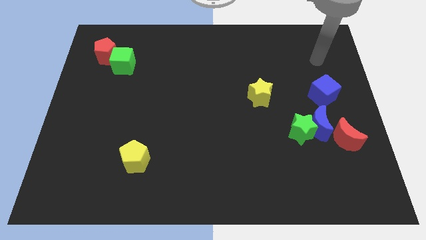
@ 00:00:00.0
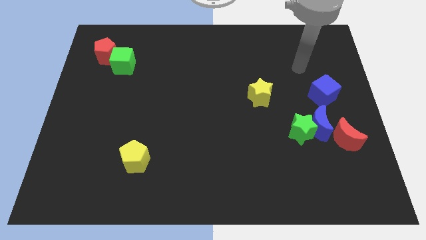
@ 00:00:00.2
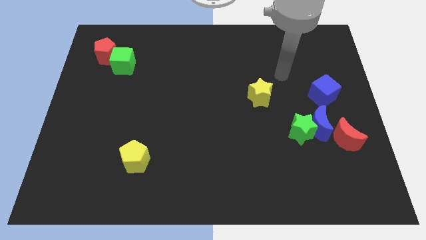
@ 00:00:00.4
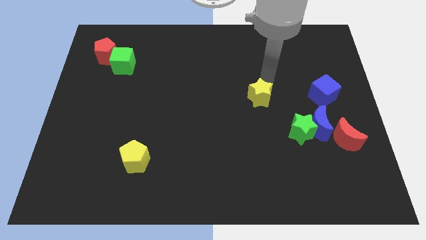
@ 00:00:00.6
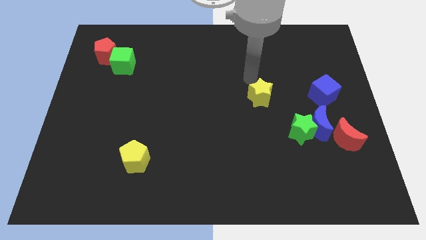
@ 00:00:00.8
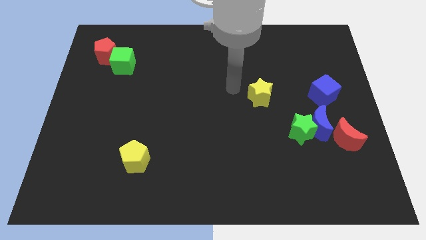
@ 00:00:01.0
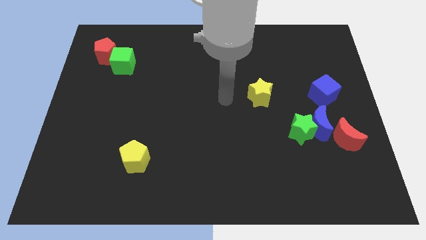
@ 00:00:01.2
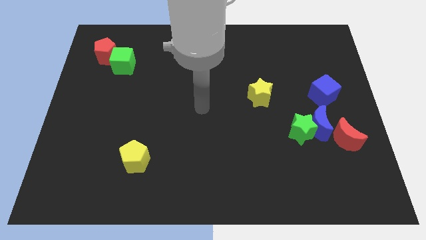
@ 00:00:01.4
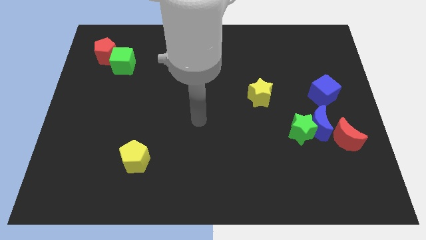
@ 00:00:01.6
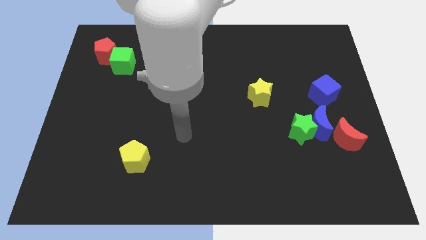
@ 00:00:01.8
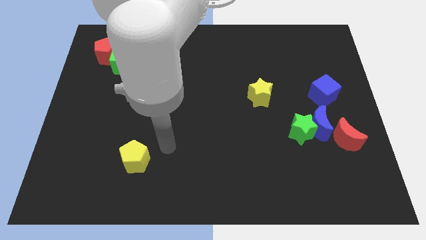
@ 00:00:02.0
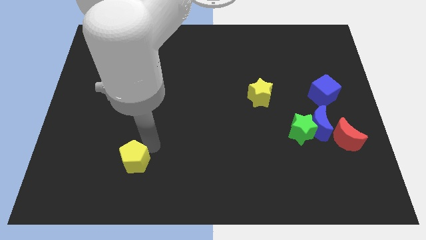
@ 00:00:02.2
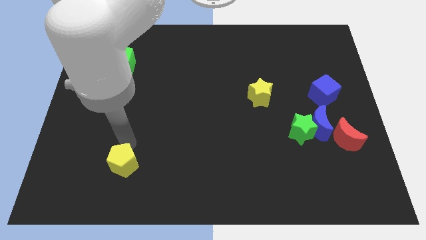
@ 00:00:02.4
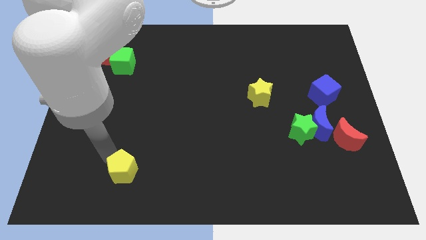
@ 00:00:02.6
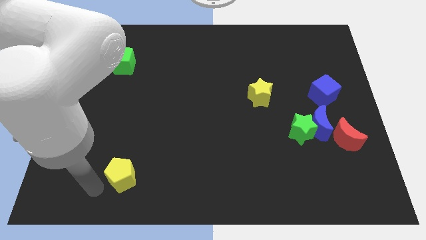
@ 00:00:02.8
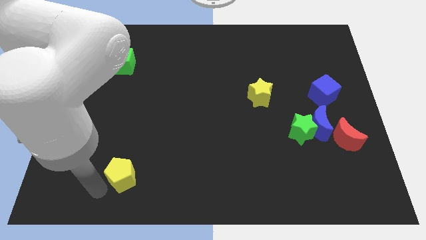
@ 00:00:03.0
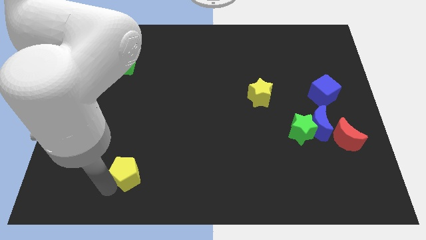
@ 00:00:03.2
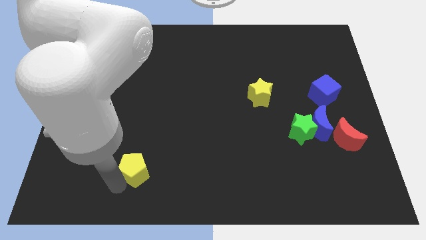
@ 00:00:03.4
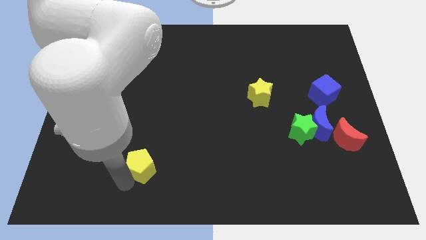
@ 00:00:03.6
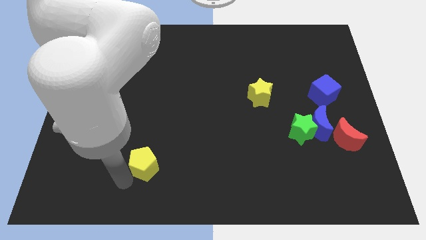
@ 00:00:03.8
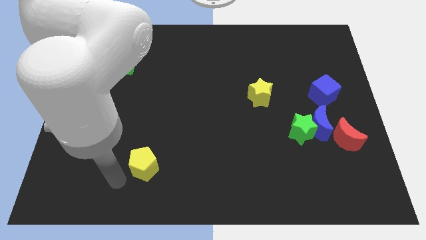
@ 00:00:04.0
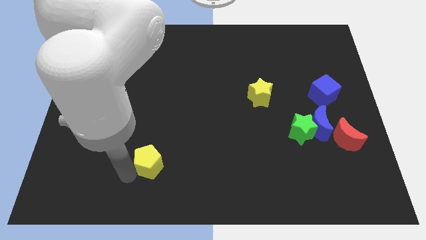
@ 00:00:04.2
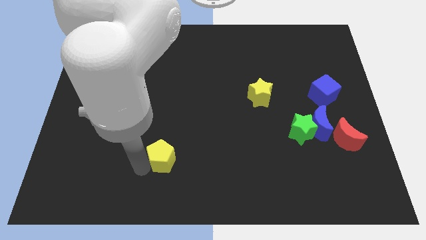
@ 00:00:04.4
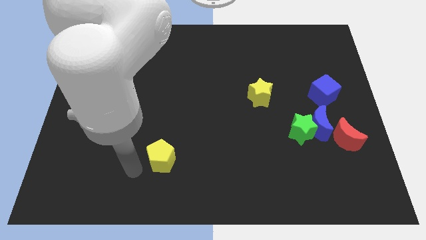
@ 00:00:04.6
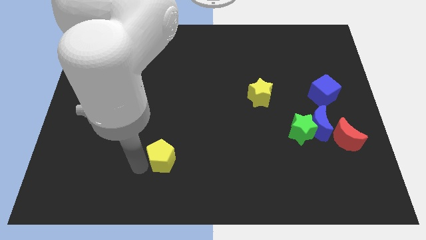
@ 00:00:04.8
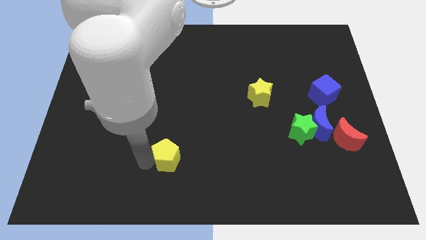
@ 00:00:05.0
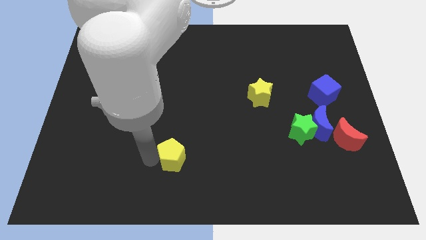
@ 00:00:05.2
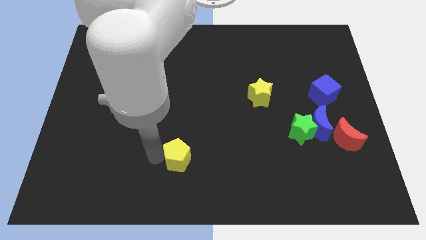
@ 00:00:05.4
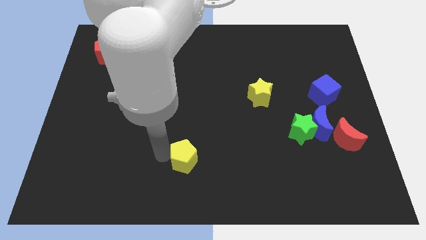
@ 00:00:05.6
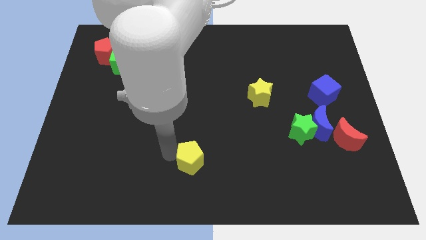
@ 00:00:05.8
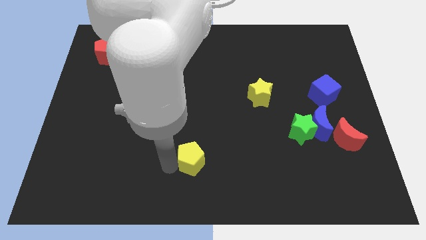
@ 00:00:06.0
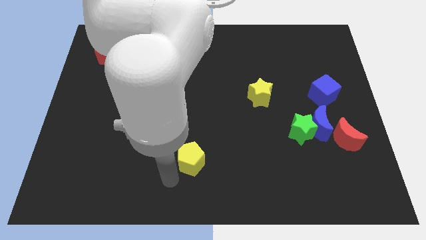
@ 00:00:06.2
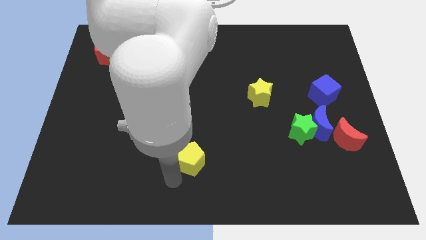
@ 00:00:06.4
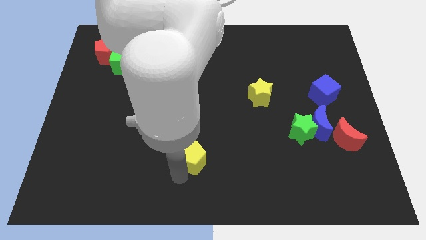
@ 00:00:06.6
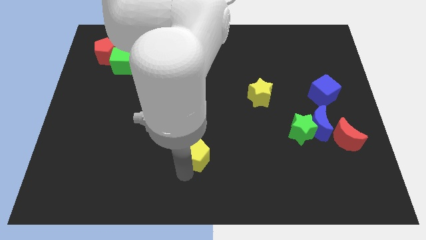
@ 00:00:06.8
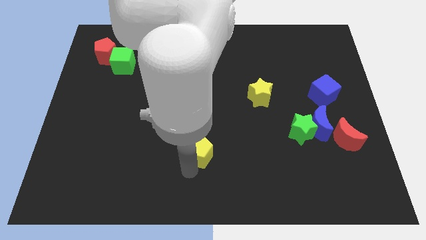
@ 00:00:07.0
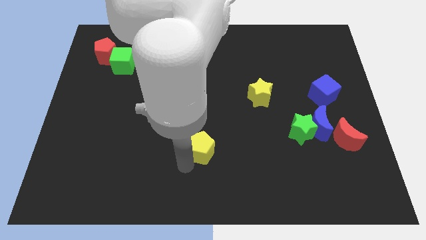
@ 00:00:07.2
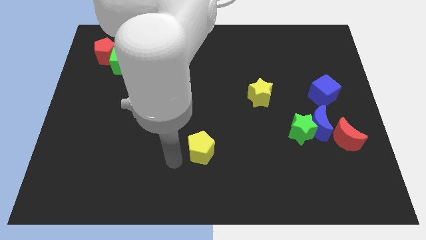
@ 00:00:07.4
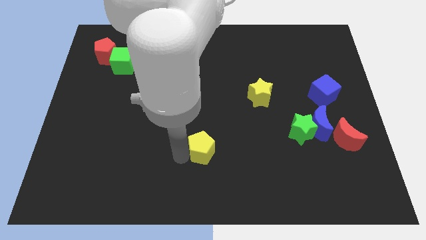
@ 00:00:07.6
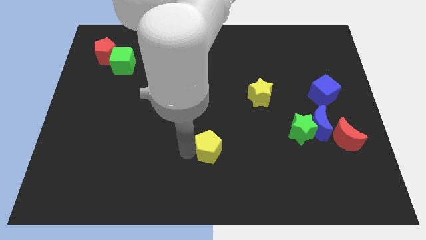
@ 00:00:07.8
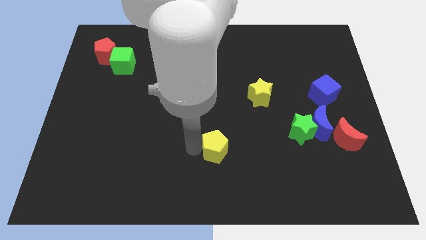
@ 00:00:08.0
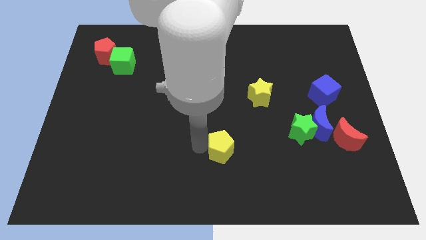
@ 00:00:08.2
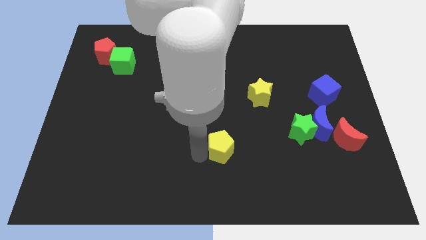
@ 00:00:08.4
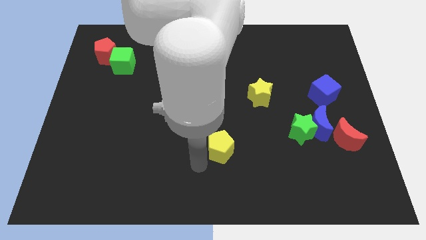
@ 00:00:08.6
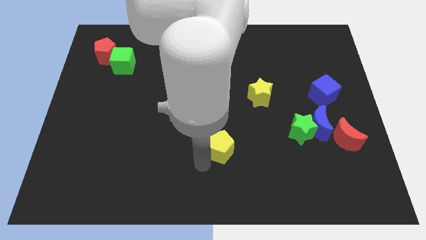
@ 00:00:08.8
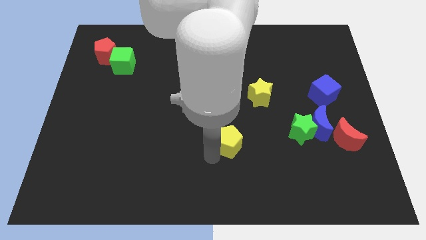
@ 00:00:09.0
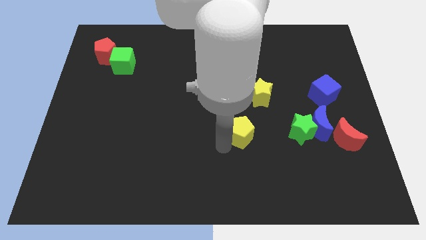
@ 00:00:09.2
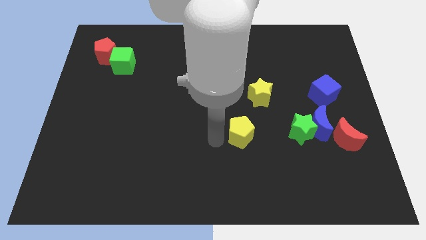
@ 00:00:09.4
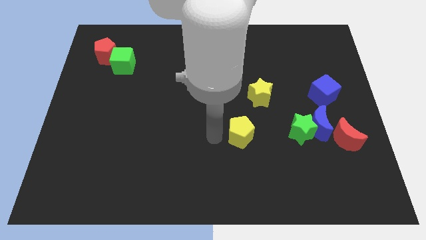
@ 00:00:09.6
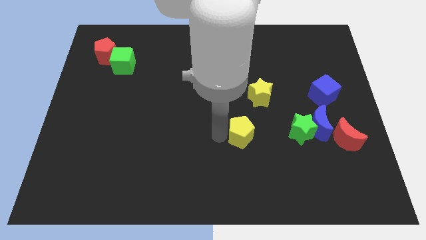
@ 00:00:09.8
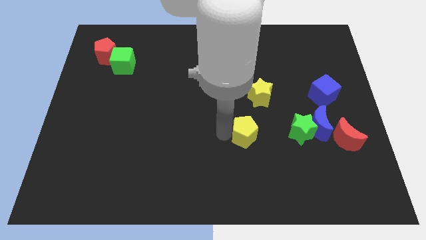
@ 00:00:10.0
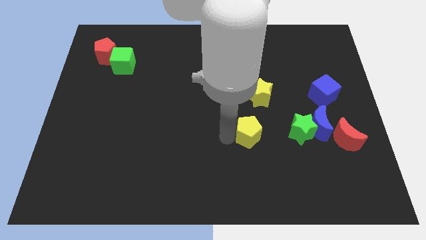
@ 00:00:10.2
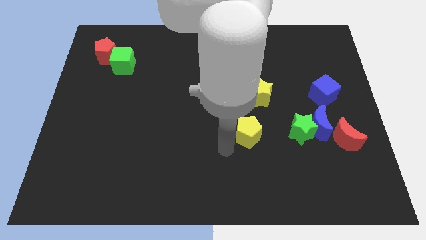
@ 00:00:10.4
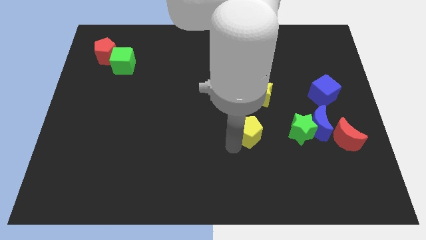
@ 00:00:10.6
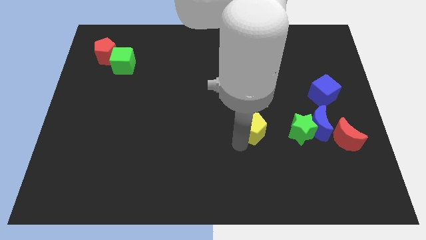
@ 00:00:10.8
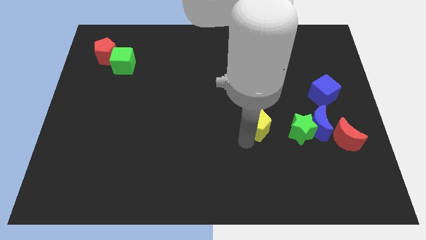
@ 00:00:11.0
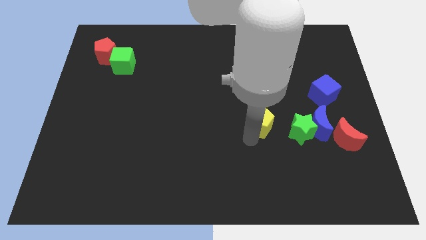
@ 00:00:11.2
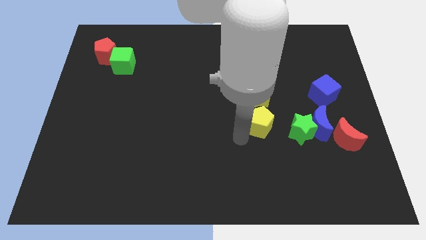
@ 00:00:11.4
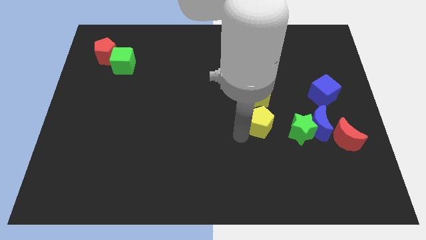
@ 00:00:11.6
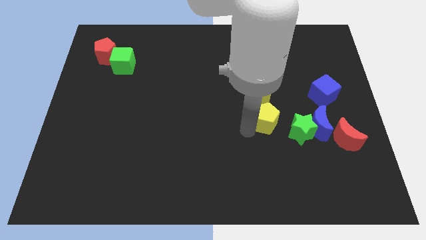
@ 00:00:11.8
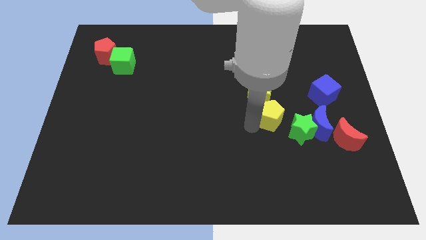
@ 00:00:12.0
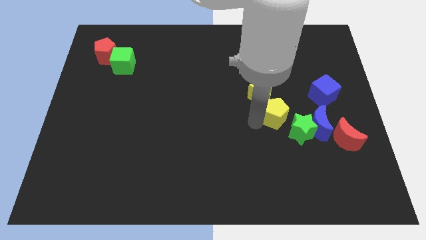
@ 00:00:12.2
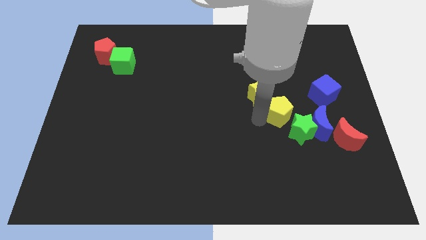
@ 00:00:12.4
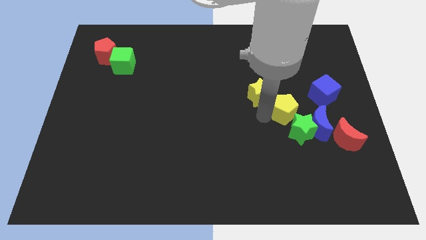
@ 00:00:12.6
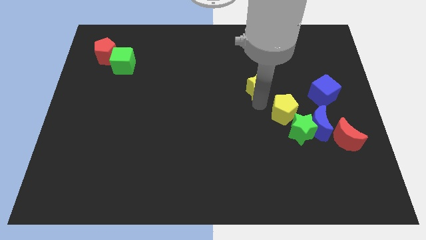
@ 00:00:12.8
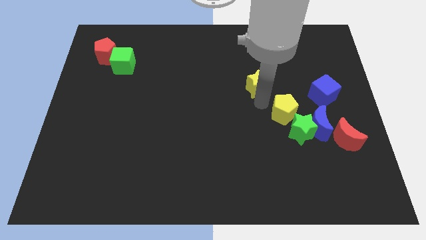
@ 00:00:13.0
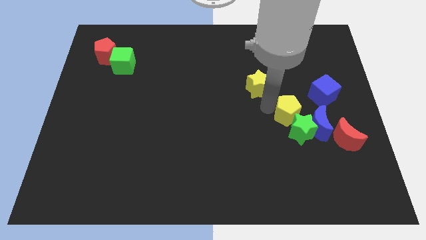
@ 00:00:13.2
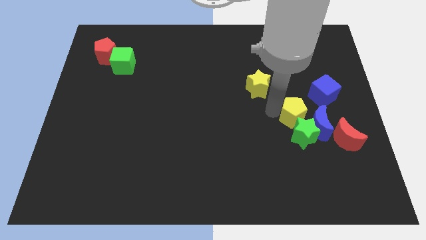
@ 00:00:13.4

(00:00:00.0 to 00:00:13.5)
push the yellow pentagon towards the blue moon
